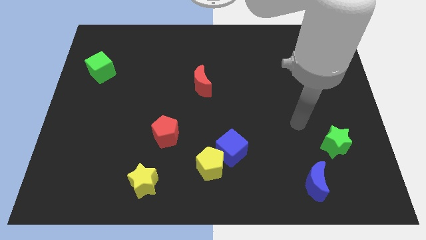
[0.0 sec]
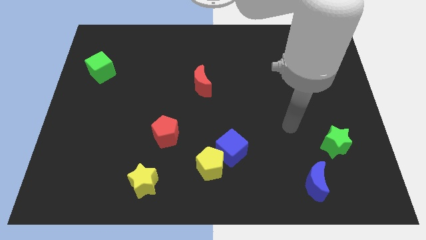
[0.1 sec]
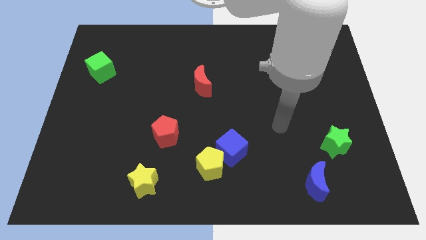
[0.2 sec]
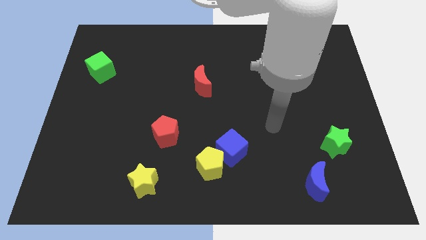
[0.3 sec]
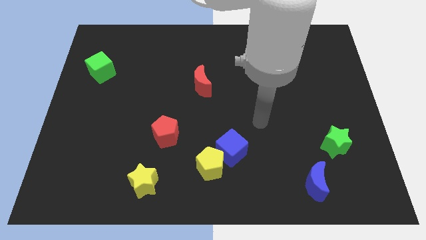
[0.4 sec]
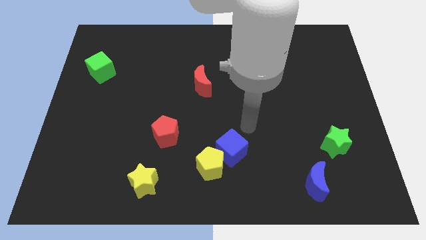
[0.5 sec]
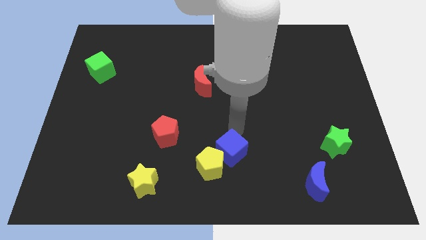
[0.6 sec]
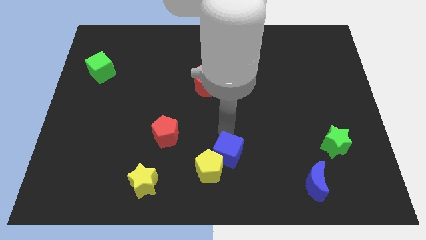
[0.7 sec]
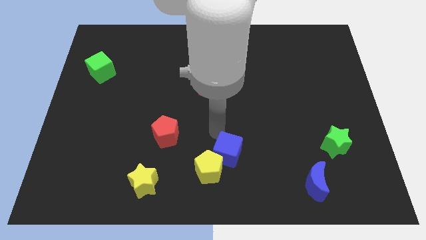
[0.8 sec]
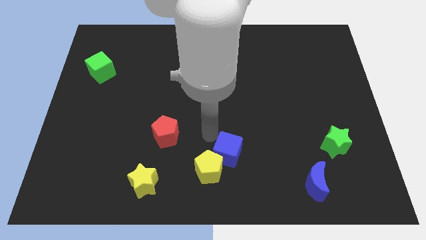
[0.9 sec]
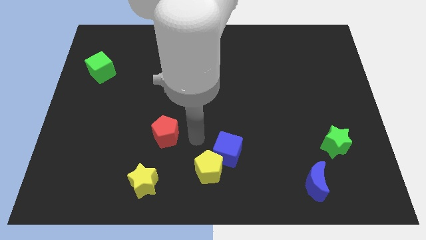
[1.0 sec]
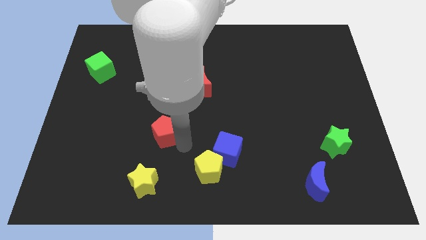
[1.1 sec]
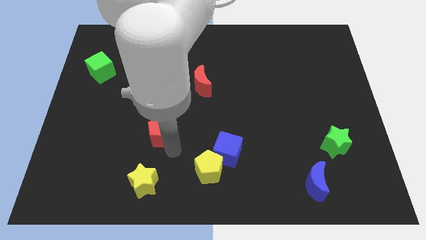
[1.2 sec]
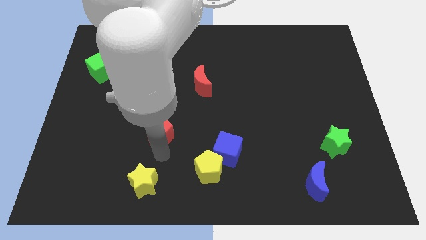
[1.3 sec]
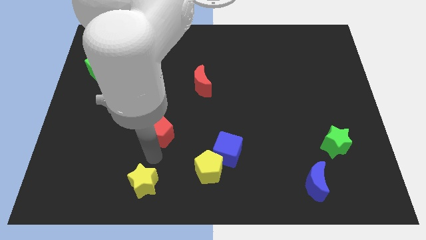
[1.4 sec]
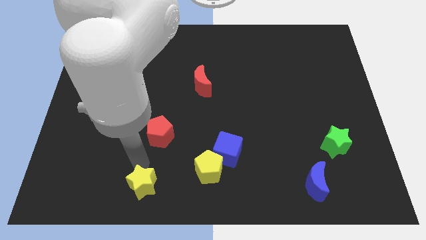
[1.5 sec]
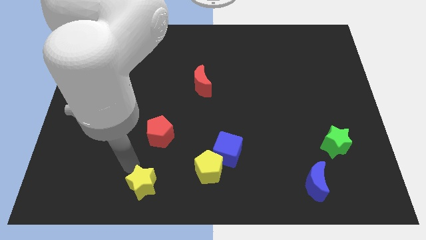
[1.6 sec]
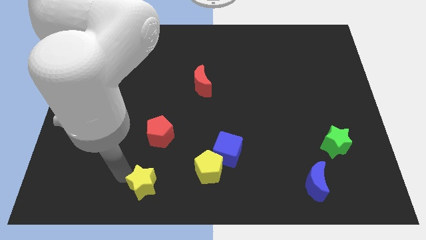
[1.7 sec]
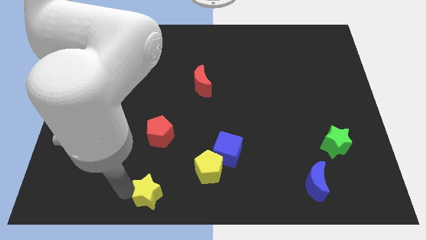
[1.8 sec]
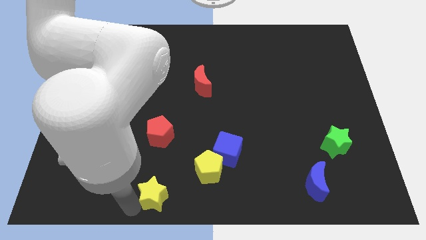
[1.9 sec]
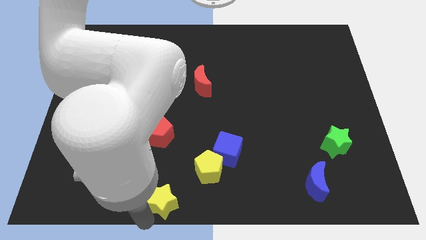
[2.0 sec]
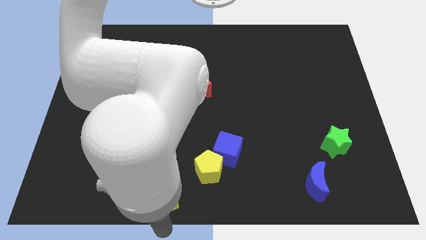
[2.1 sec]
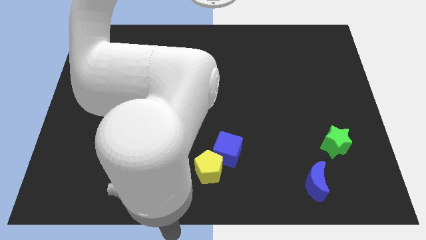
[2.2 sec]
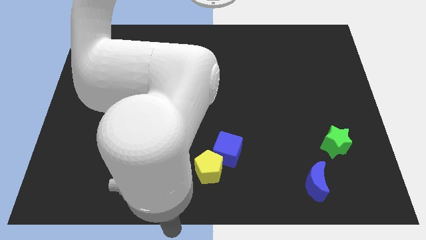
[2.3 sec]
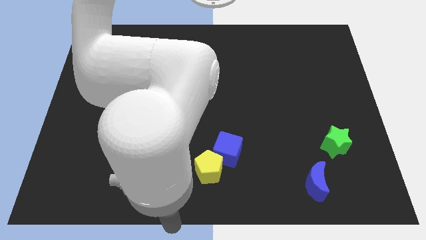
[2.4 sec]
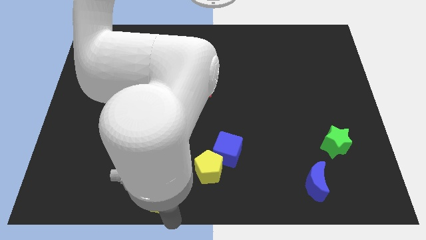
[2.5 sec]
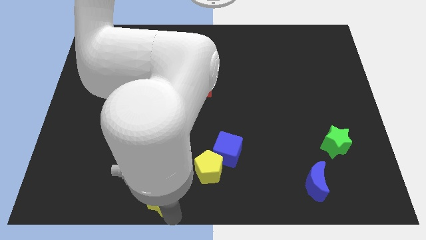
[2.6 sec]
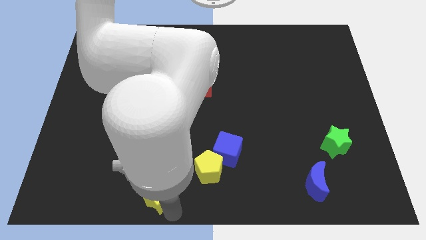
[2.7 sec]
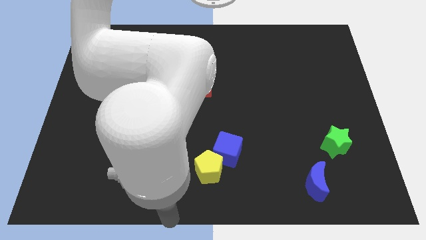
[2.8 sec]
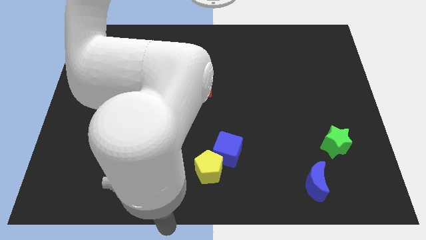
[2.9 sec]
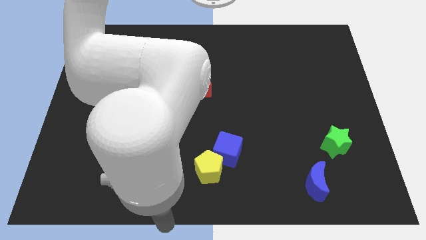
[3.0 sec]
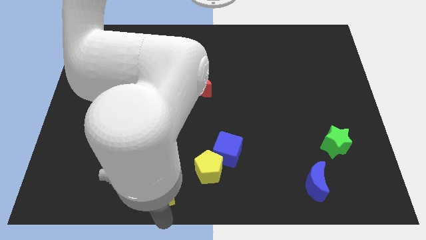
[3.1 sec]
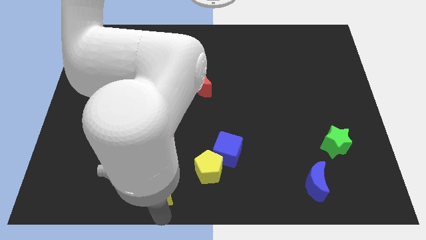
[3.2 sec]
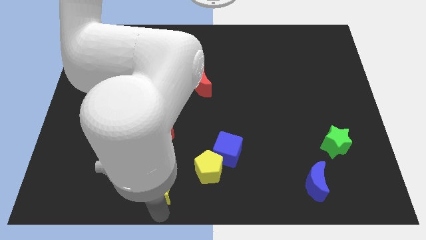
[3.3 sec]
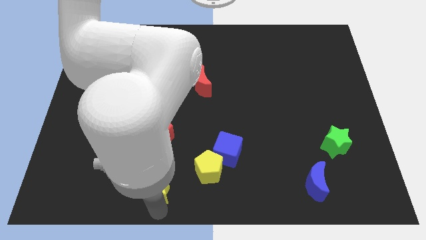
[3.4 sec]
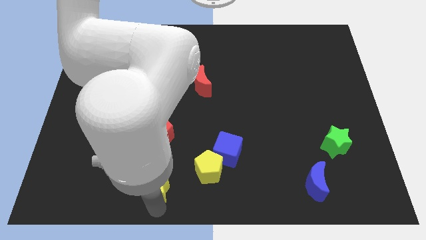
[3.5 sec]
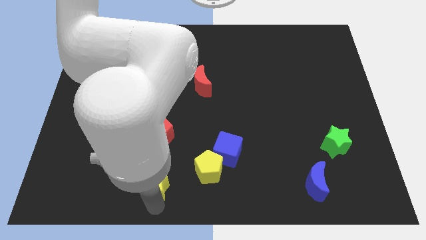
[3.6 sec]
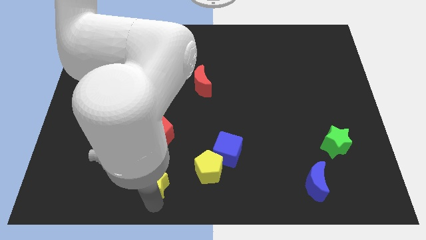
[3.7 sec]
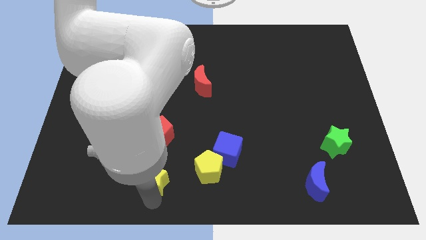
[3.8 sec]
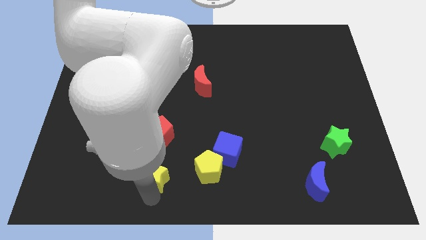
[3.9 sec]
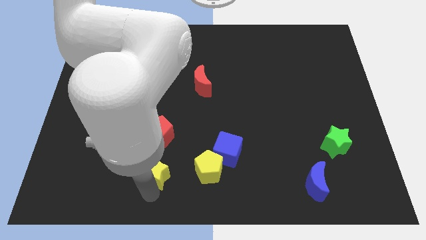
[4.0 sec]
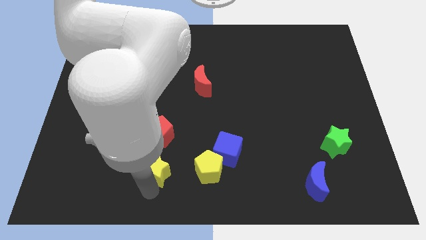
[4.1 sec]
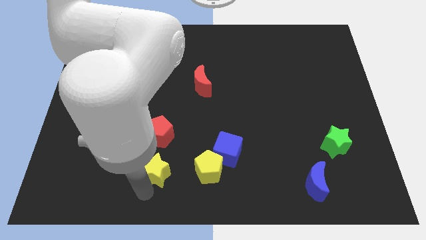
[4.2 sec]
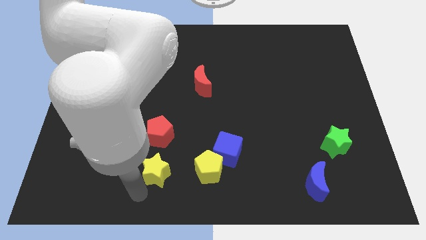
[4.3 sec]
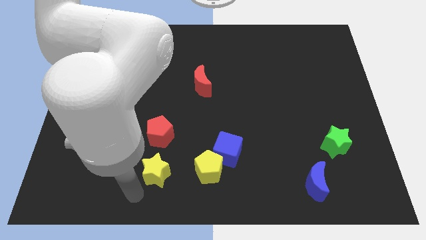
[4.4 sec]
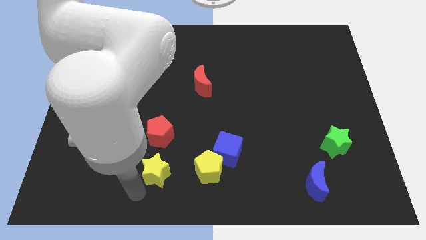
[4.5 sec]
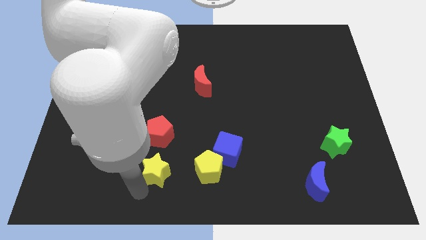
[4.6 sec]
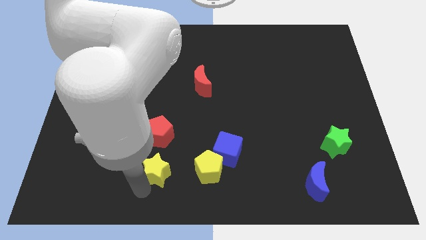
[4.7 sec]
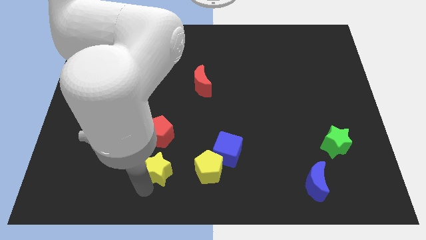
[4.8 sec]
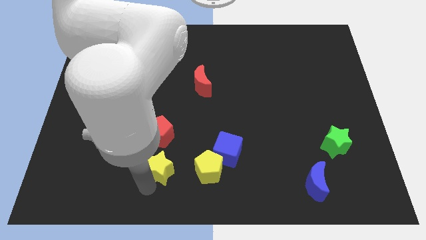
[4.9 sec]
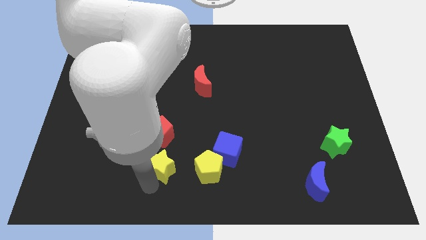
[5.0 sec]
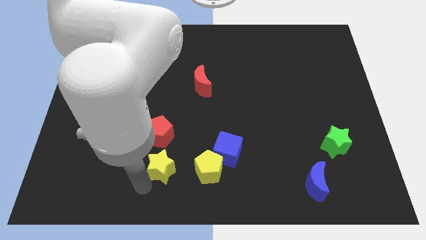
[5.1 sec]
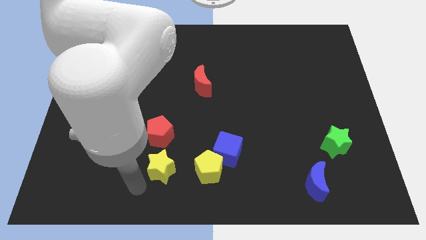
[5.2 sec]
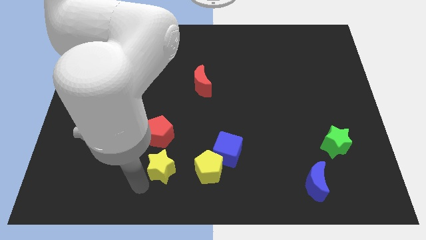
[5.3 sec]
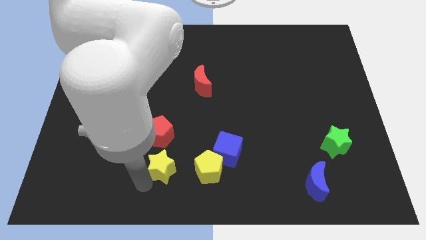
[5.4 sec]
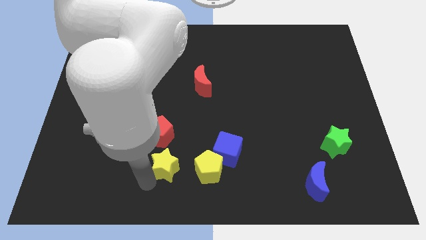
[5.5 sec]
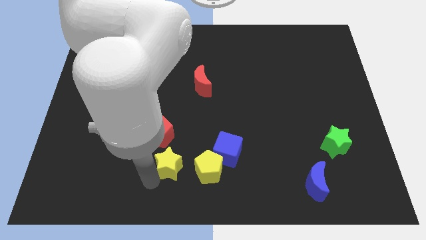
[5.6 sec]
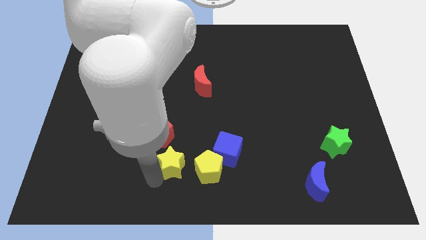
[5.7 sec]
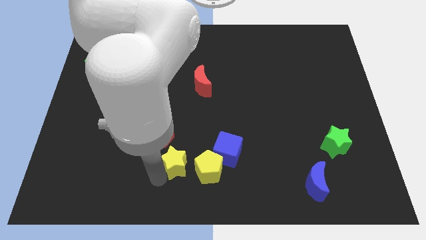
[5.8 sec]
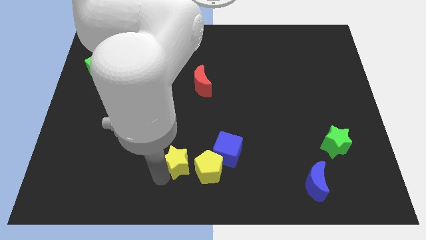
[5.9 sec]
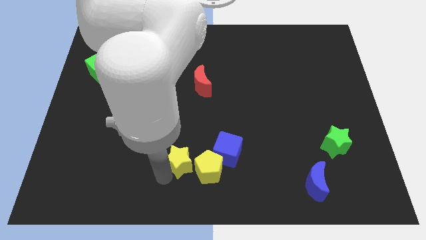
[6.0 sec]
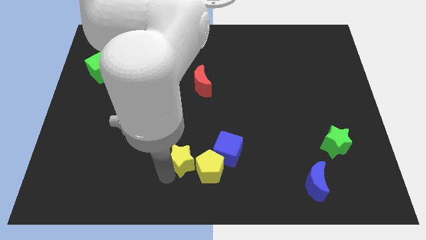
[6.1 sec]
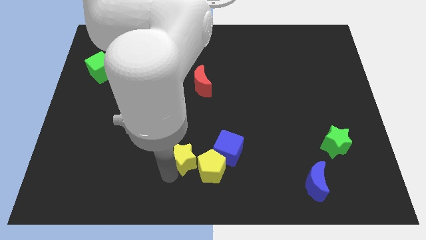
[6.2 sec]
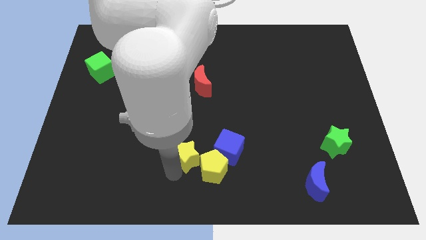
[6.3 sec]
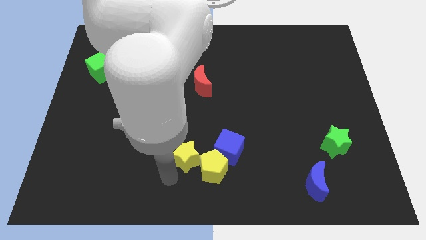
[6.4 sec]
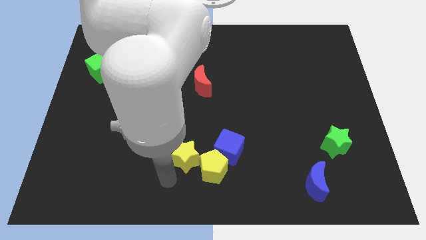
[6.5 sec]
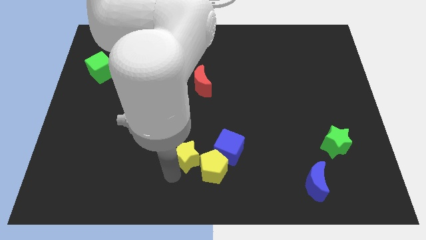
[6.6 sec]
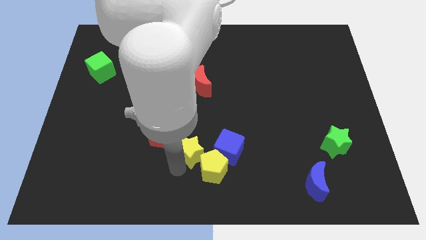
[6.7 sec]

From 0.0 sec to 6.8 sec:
slide the yellow star just right of the red pentagon
